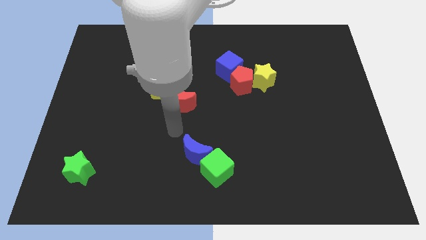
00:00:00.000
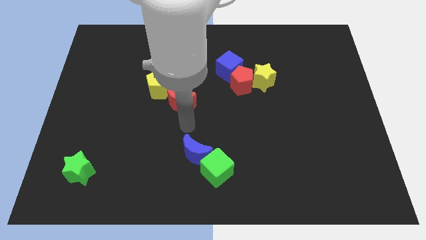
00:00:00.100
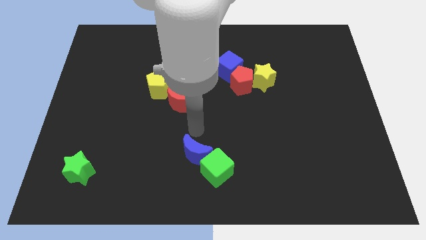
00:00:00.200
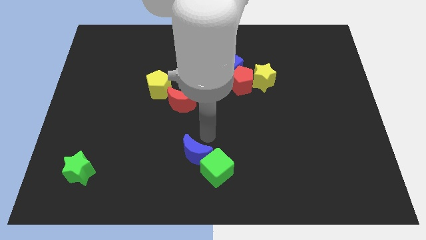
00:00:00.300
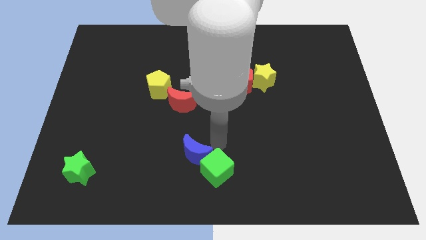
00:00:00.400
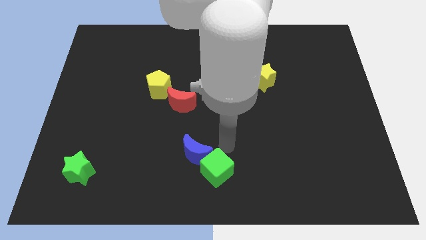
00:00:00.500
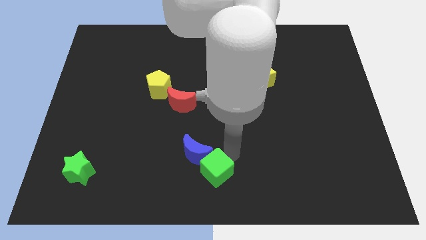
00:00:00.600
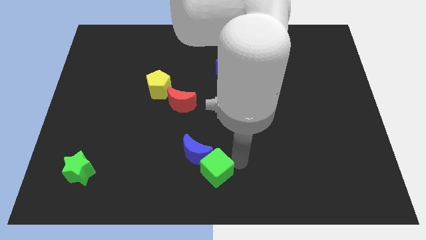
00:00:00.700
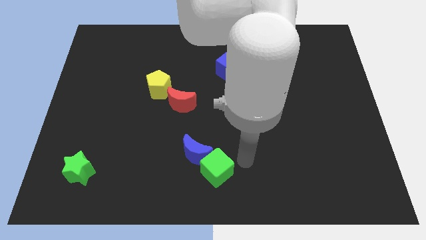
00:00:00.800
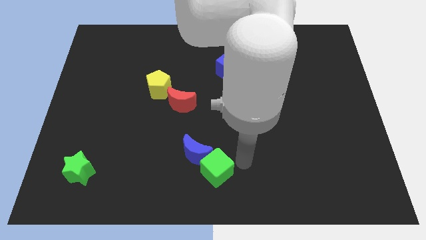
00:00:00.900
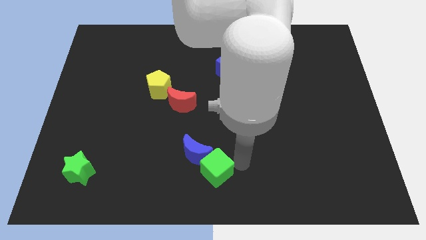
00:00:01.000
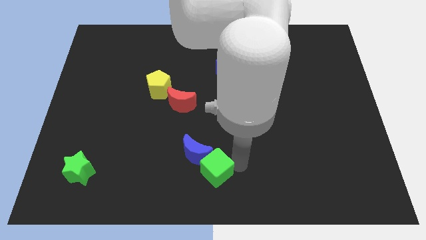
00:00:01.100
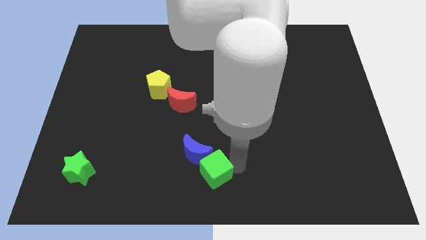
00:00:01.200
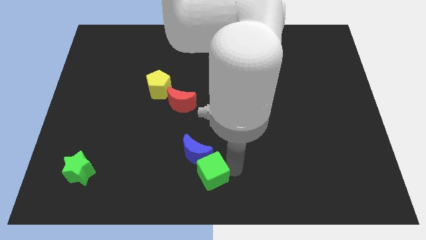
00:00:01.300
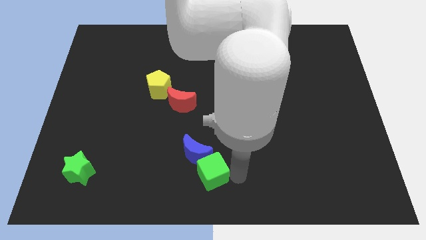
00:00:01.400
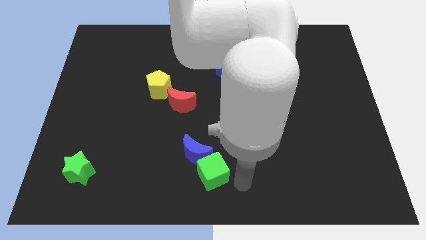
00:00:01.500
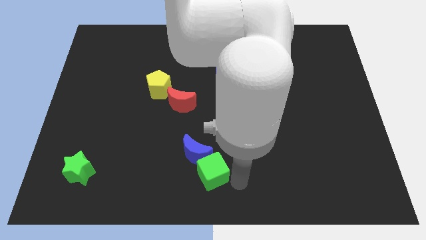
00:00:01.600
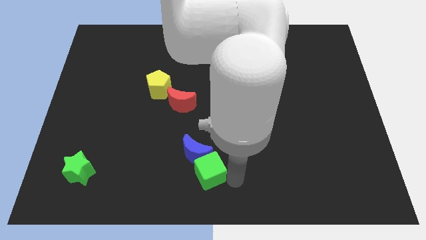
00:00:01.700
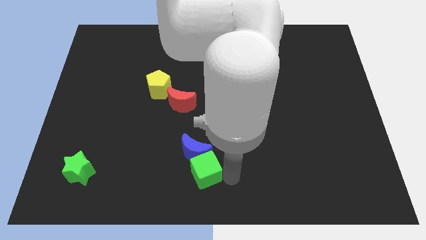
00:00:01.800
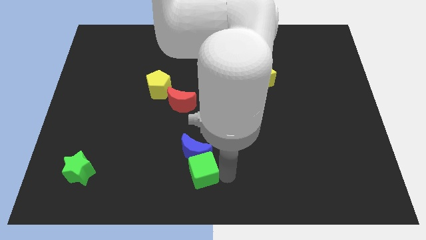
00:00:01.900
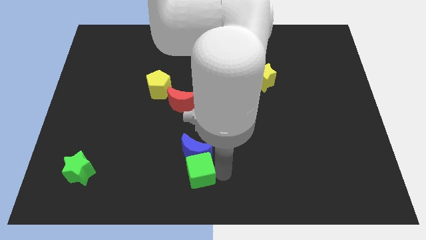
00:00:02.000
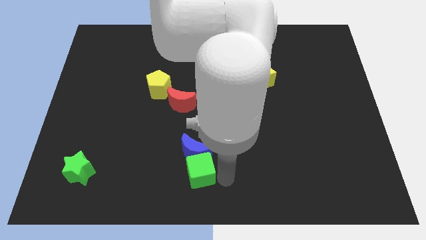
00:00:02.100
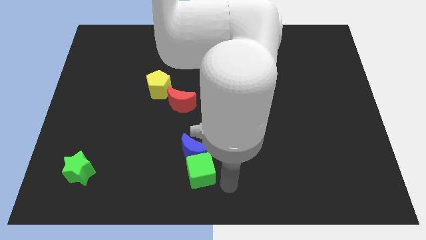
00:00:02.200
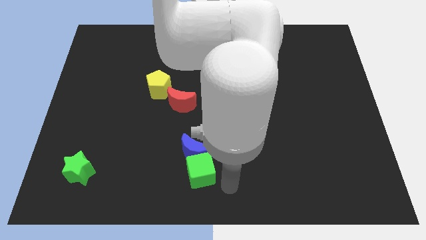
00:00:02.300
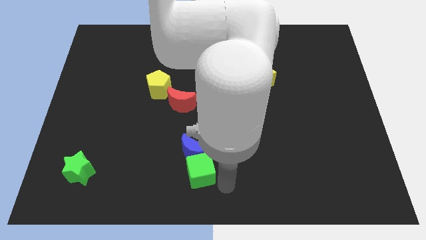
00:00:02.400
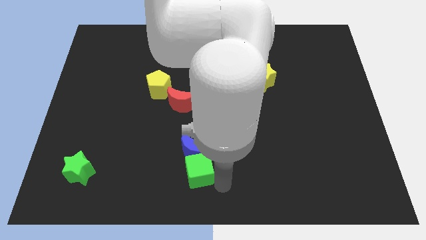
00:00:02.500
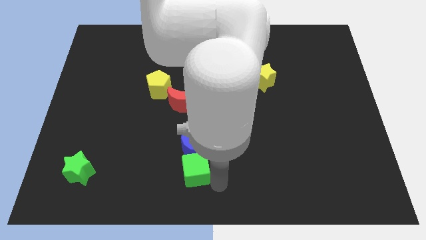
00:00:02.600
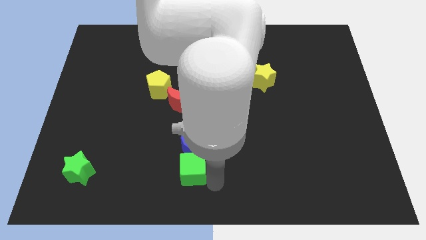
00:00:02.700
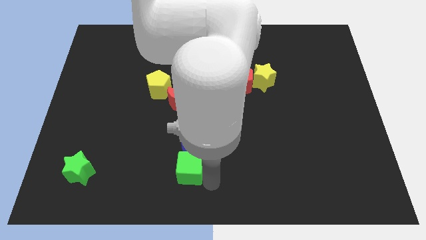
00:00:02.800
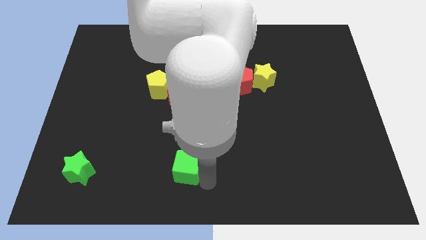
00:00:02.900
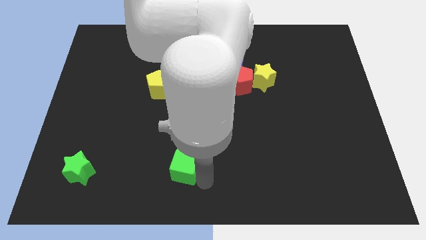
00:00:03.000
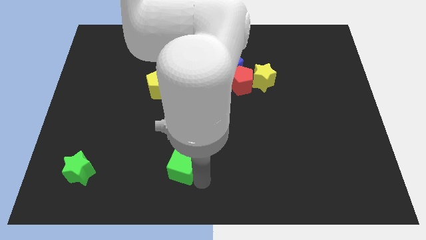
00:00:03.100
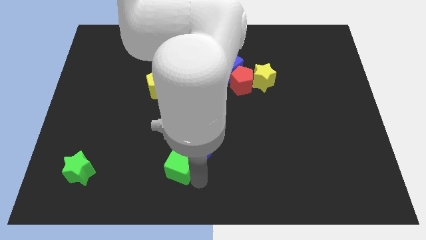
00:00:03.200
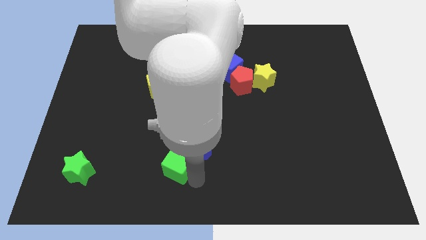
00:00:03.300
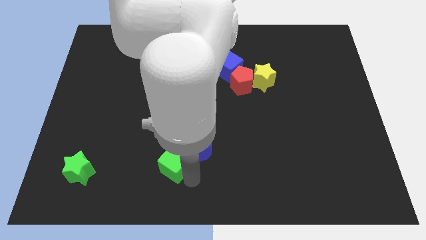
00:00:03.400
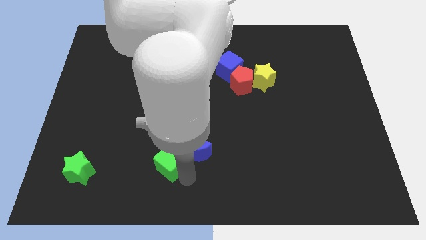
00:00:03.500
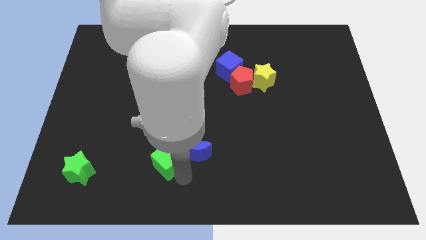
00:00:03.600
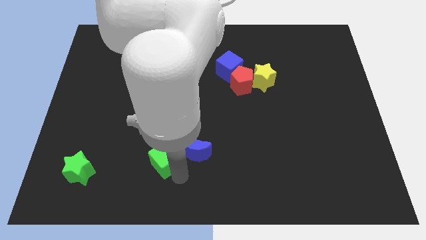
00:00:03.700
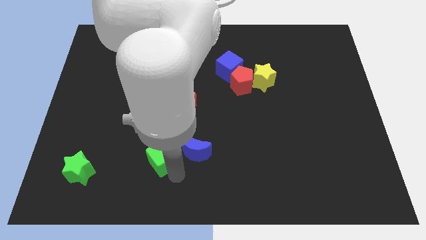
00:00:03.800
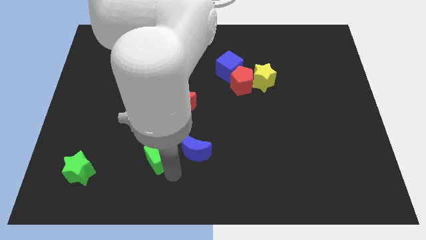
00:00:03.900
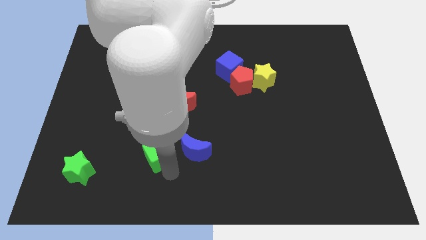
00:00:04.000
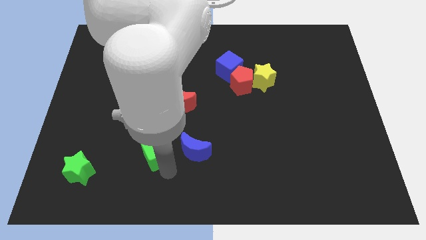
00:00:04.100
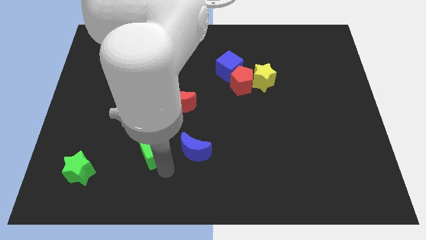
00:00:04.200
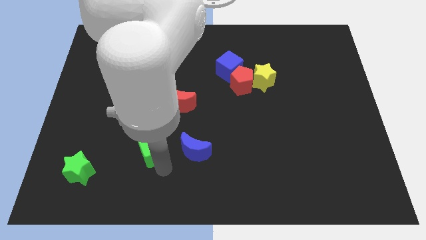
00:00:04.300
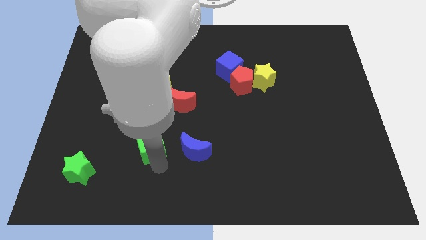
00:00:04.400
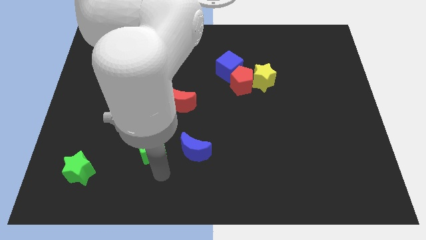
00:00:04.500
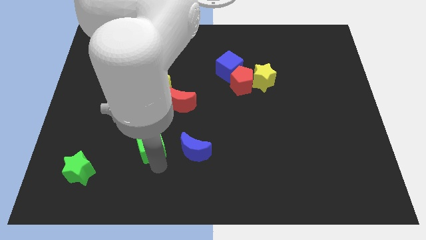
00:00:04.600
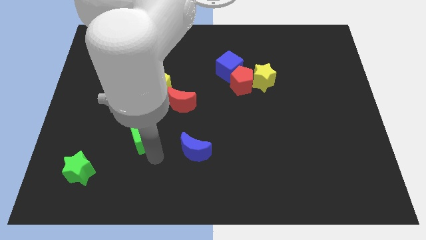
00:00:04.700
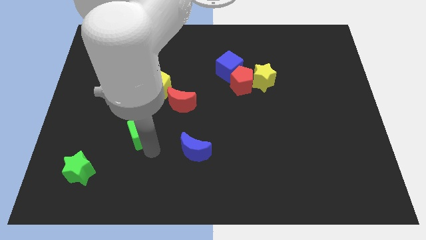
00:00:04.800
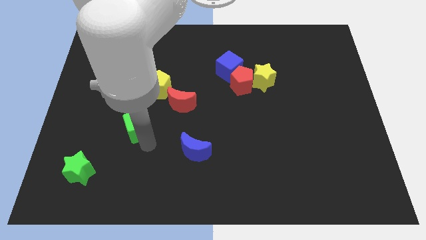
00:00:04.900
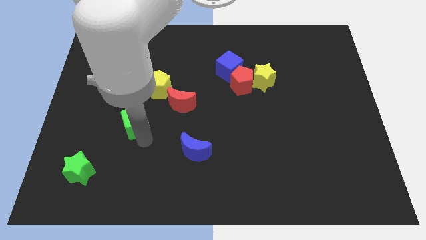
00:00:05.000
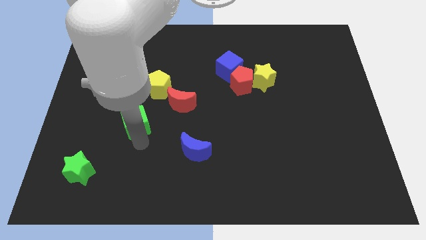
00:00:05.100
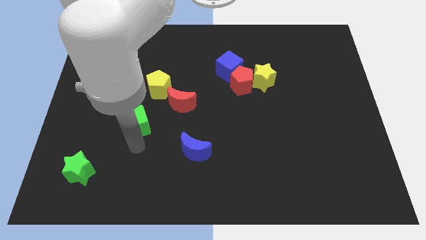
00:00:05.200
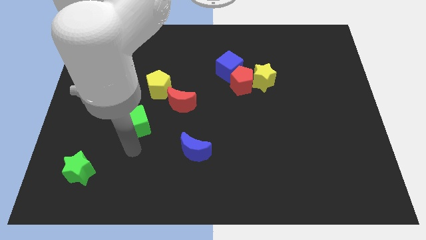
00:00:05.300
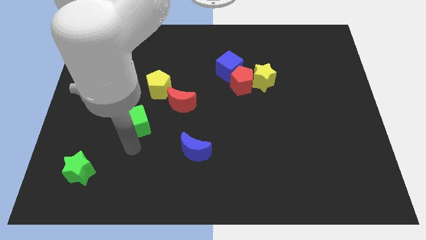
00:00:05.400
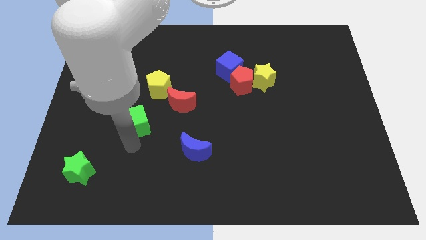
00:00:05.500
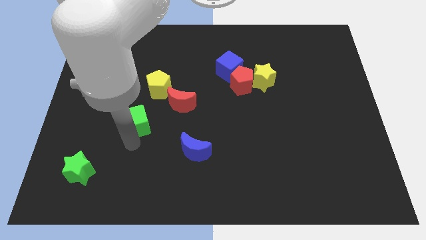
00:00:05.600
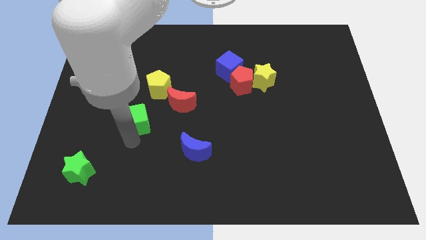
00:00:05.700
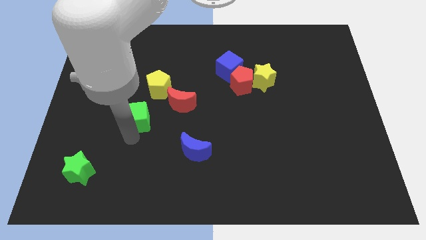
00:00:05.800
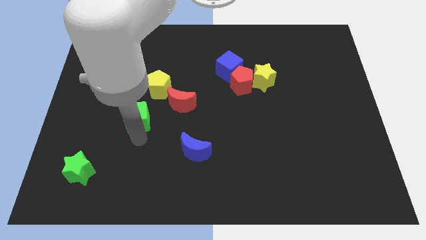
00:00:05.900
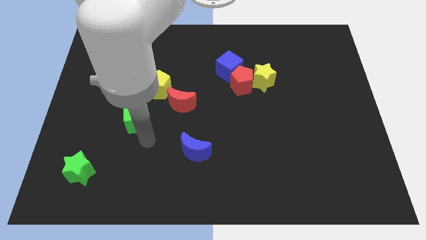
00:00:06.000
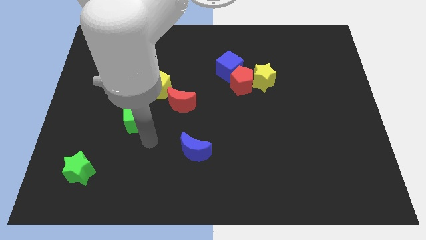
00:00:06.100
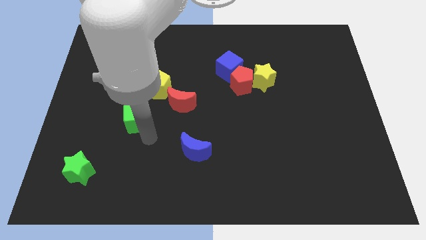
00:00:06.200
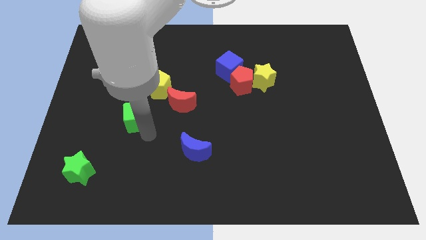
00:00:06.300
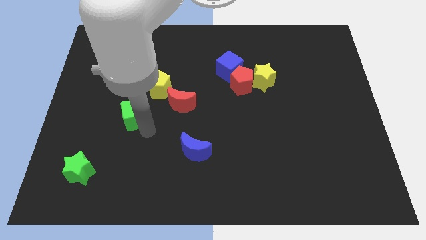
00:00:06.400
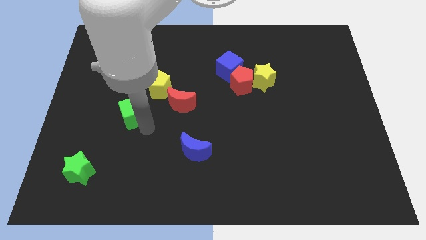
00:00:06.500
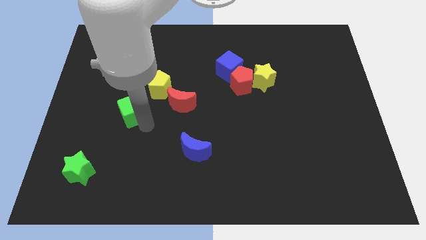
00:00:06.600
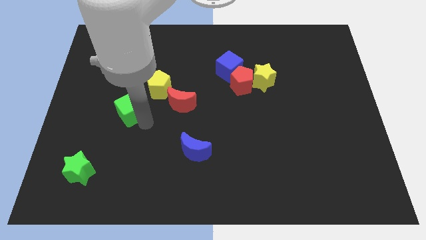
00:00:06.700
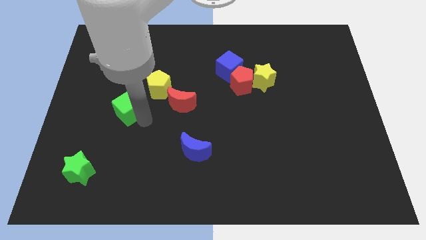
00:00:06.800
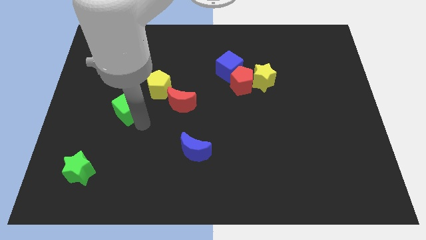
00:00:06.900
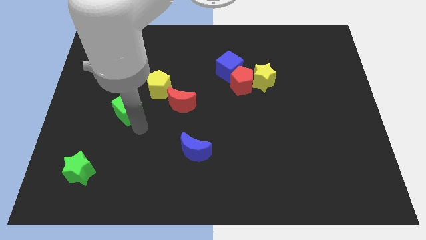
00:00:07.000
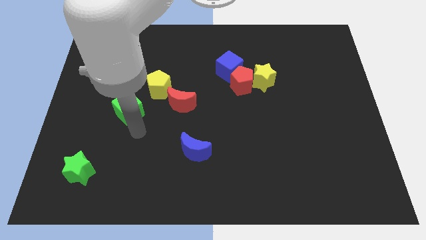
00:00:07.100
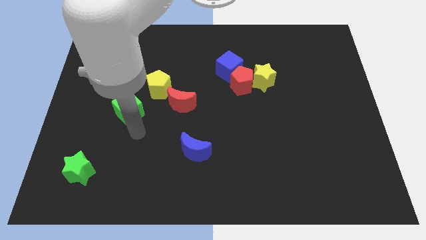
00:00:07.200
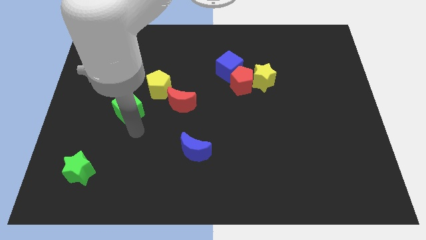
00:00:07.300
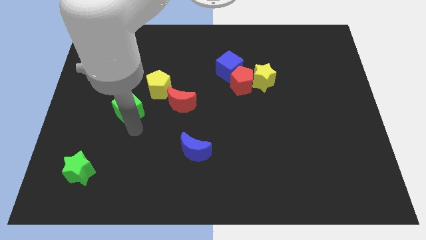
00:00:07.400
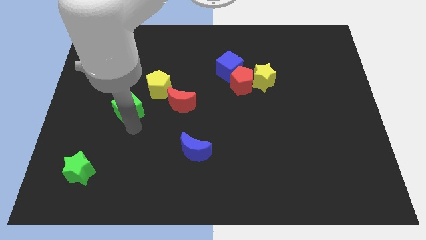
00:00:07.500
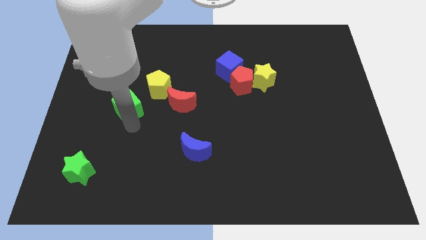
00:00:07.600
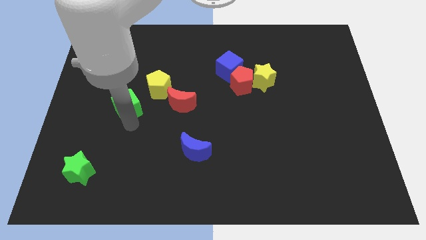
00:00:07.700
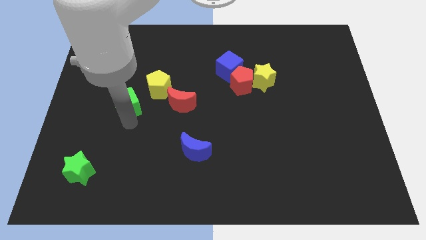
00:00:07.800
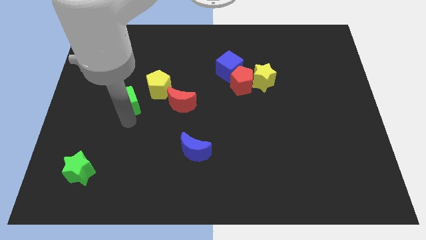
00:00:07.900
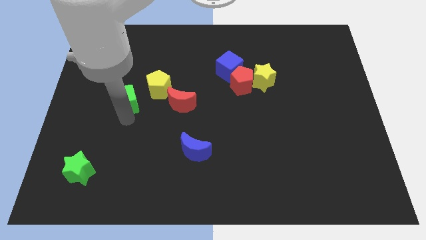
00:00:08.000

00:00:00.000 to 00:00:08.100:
move the green cube to the left side of the yellow pentagon
